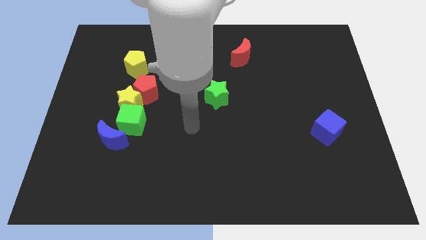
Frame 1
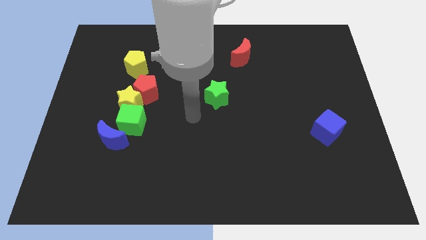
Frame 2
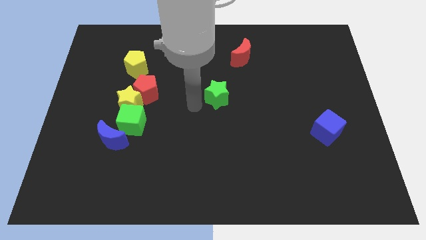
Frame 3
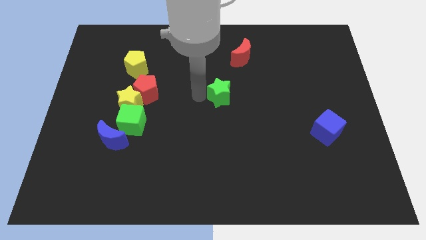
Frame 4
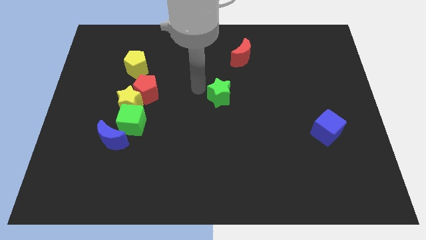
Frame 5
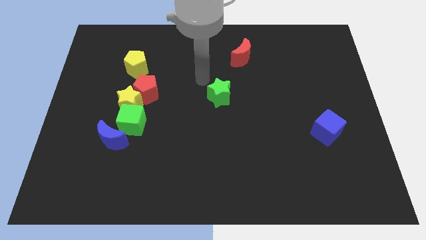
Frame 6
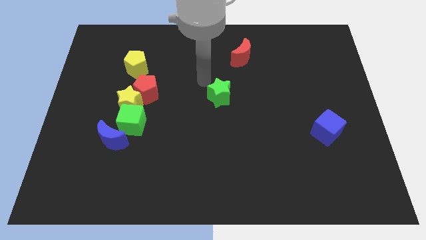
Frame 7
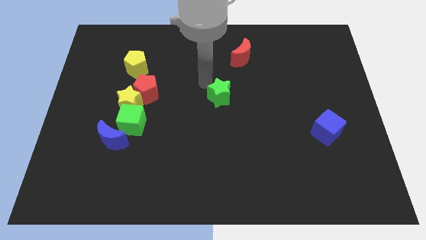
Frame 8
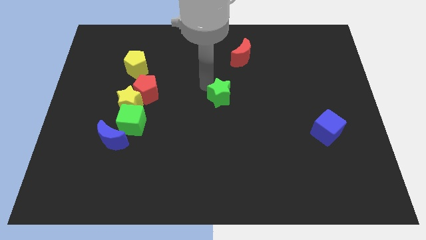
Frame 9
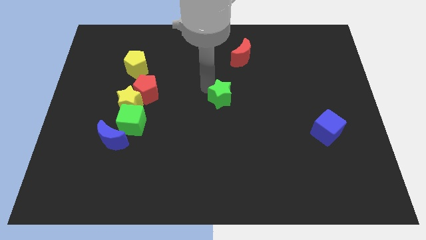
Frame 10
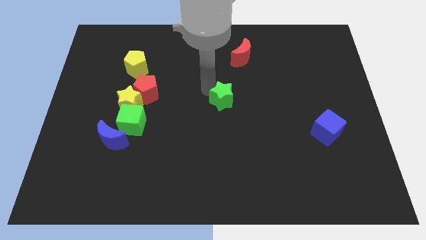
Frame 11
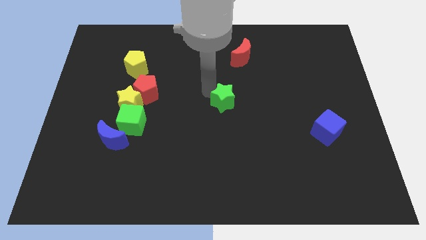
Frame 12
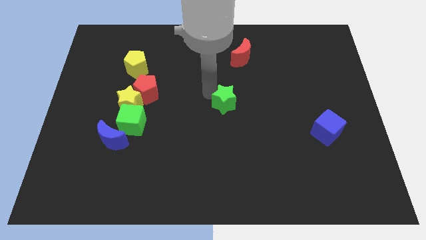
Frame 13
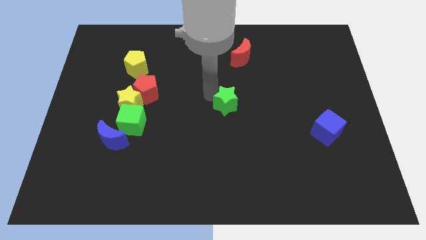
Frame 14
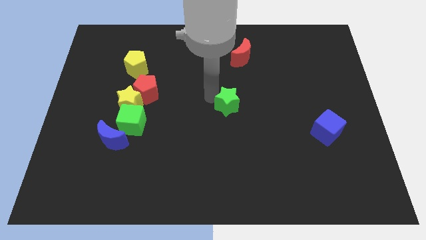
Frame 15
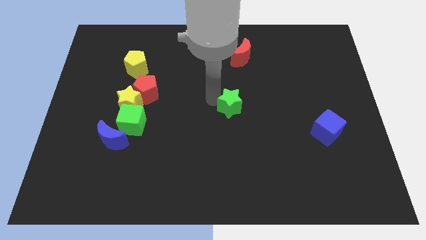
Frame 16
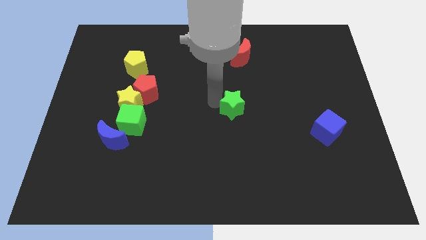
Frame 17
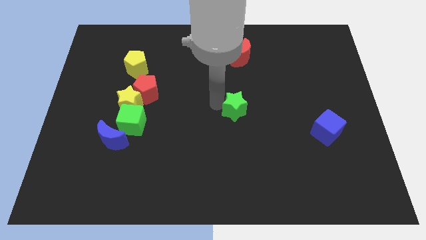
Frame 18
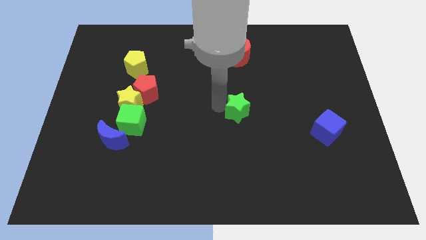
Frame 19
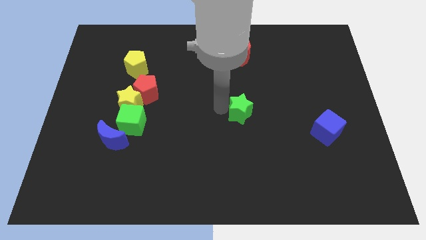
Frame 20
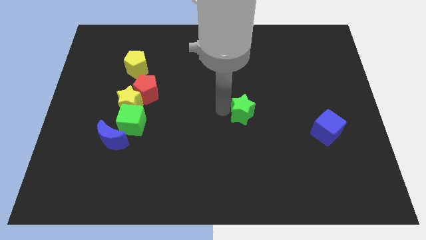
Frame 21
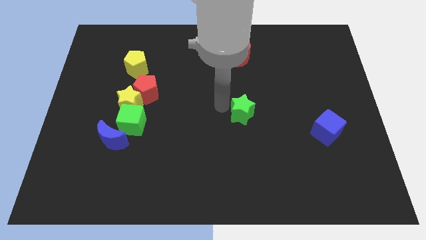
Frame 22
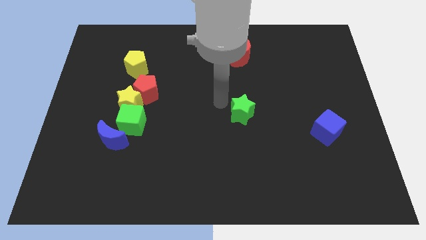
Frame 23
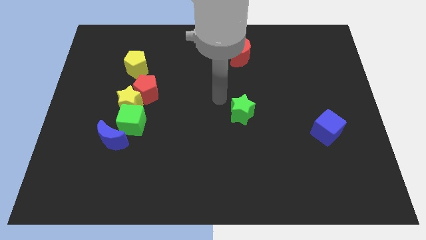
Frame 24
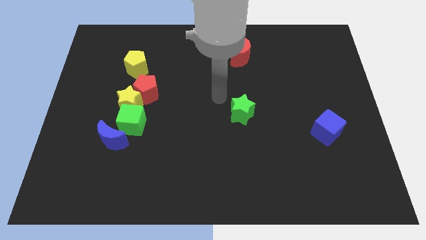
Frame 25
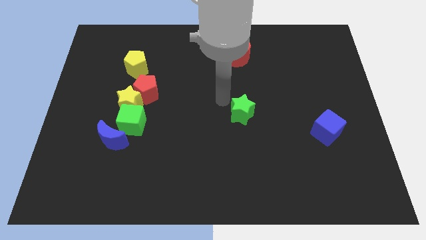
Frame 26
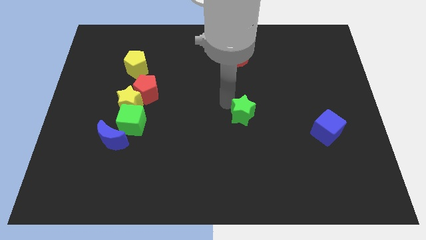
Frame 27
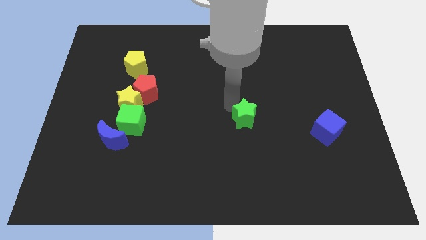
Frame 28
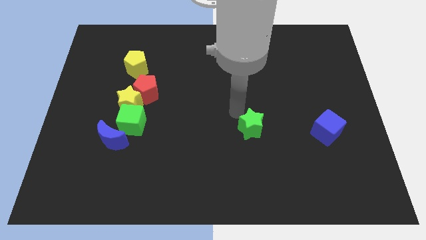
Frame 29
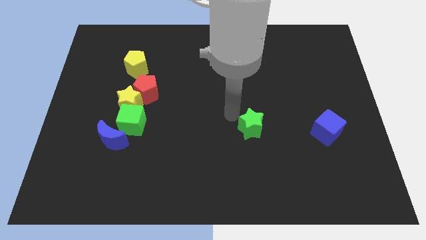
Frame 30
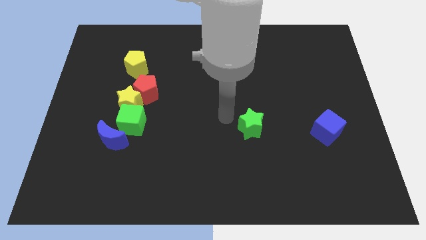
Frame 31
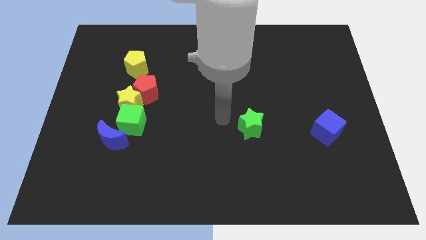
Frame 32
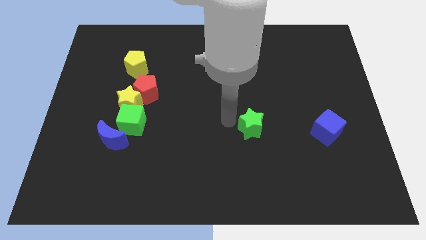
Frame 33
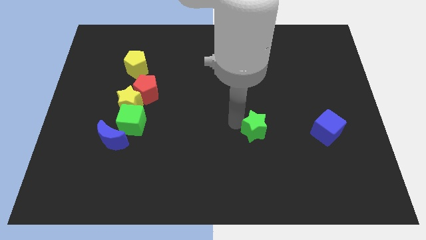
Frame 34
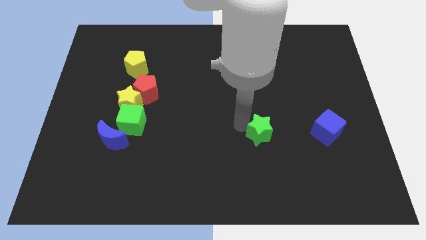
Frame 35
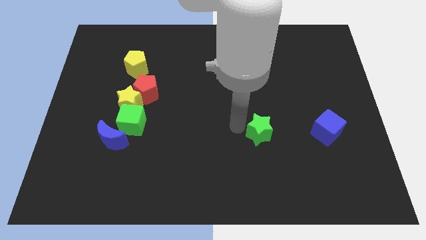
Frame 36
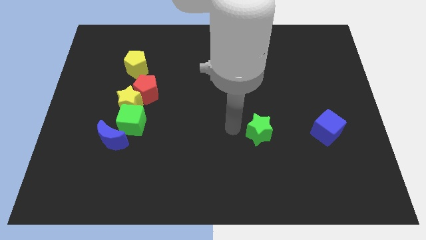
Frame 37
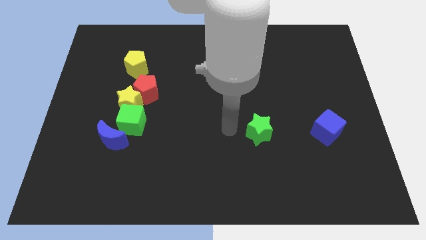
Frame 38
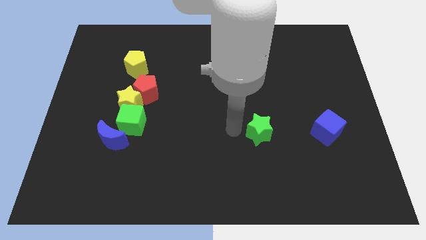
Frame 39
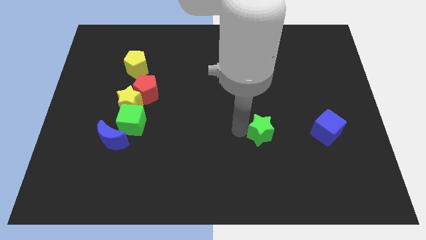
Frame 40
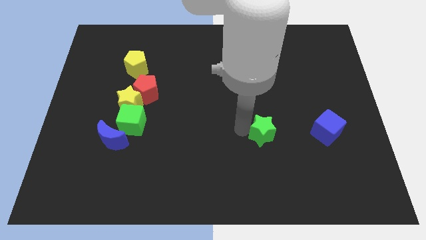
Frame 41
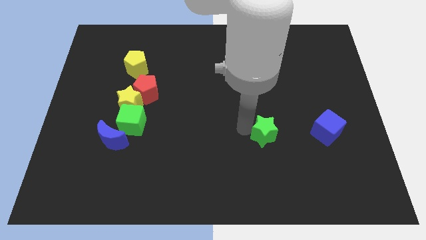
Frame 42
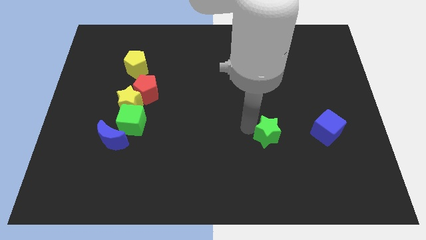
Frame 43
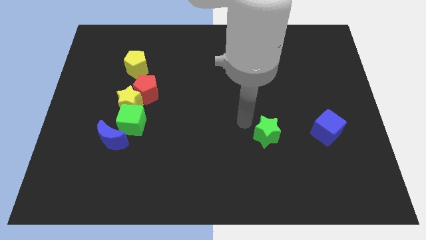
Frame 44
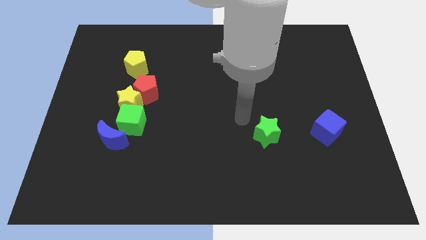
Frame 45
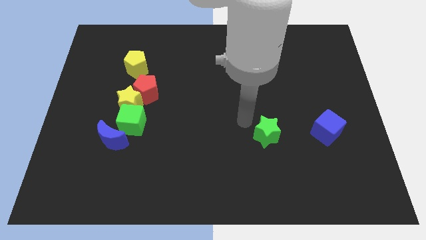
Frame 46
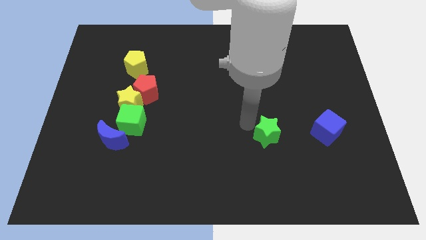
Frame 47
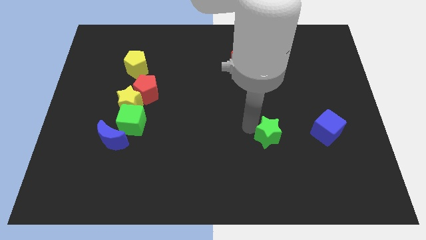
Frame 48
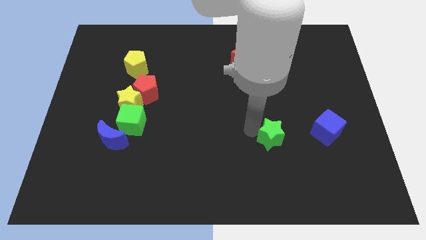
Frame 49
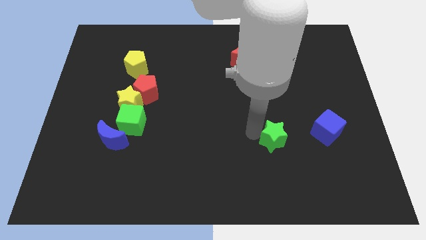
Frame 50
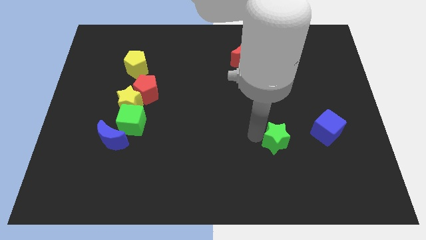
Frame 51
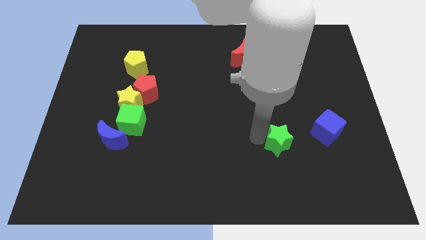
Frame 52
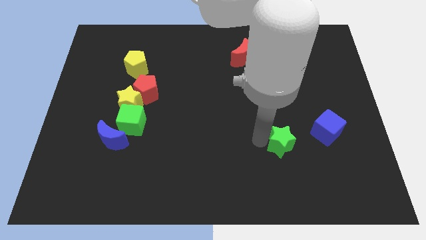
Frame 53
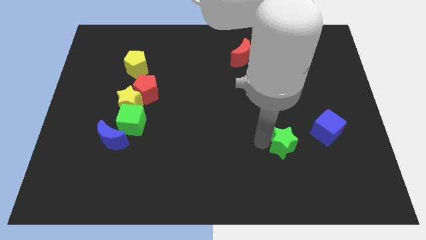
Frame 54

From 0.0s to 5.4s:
move the green star downwards and right diagonally

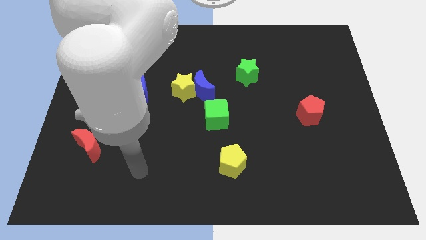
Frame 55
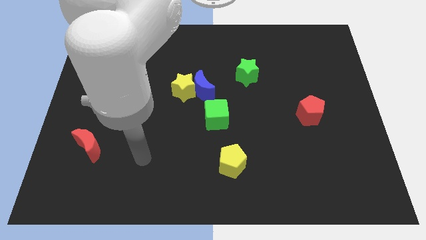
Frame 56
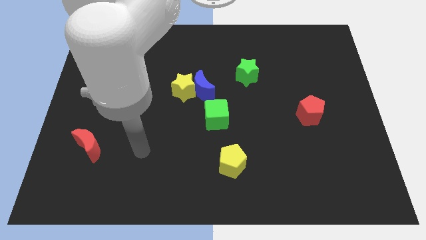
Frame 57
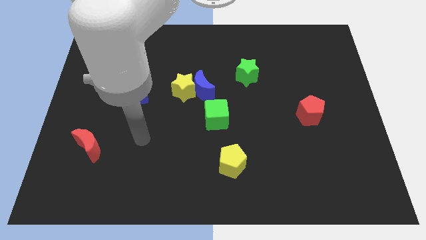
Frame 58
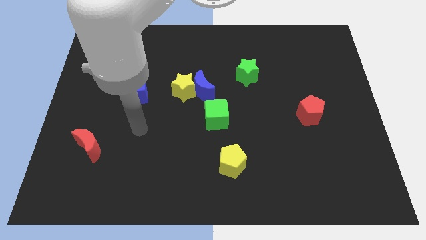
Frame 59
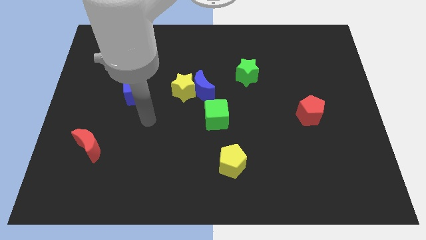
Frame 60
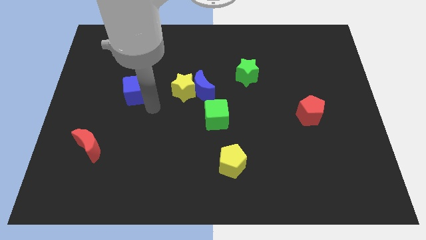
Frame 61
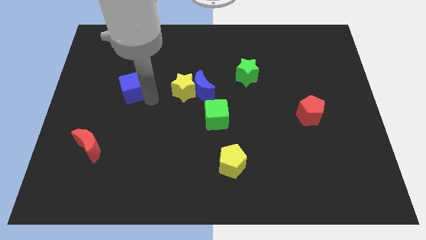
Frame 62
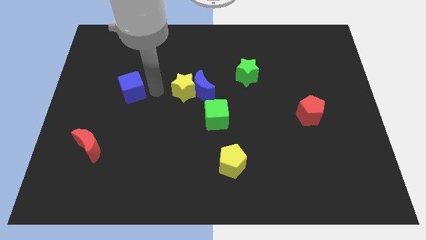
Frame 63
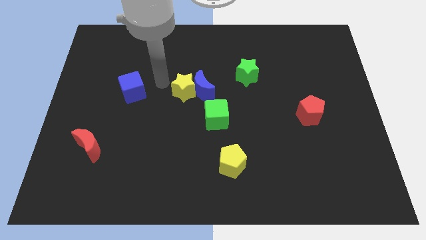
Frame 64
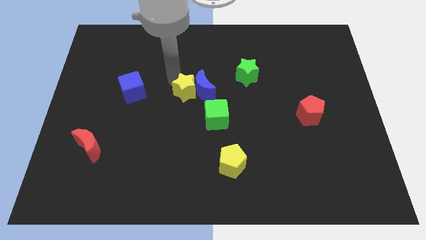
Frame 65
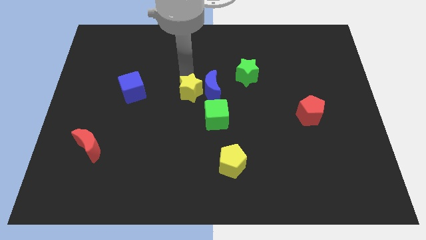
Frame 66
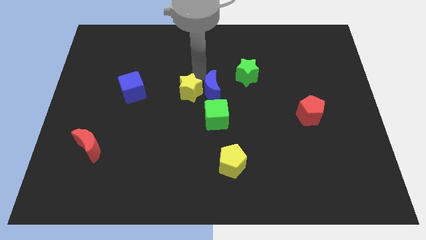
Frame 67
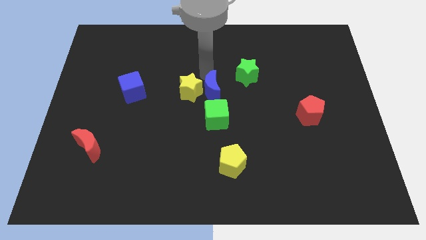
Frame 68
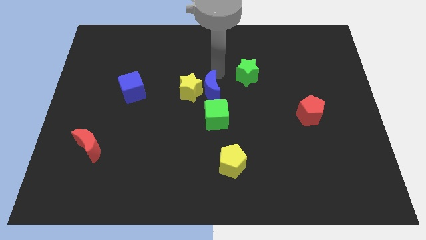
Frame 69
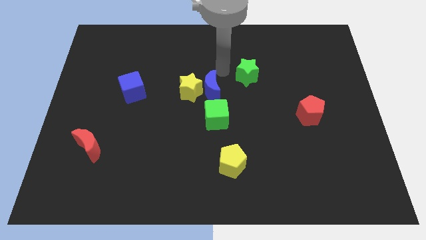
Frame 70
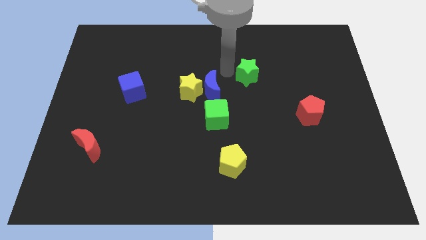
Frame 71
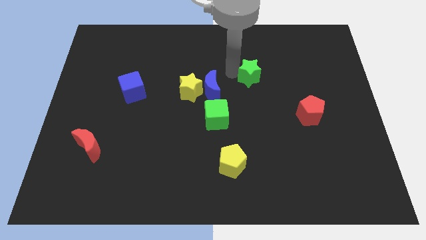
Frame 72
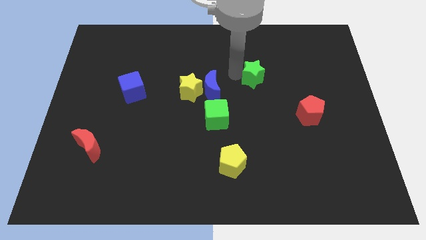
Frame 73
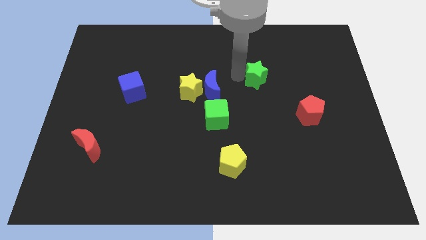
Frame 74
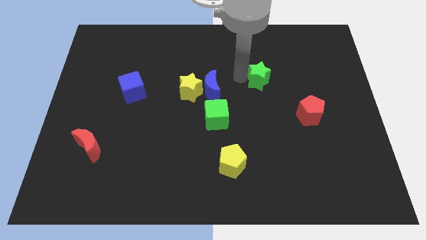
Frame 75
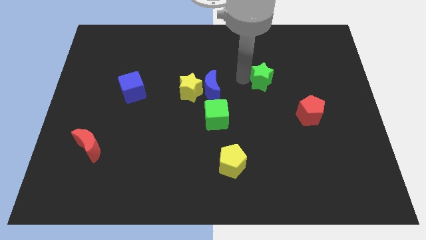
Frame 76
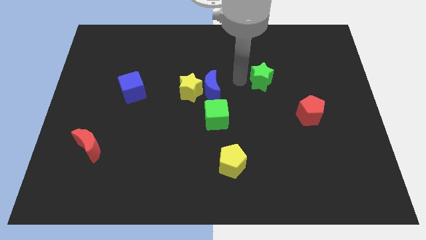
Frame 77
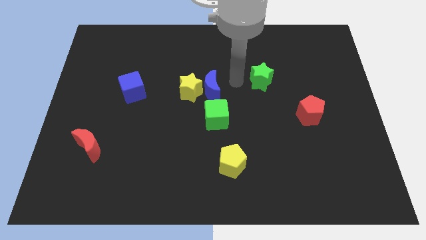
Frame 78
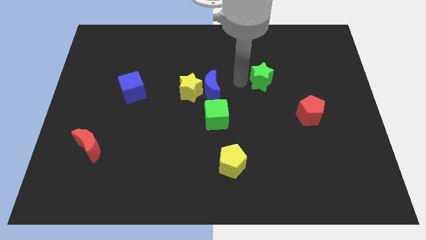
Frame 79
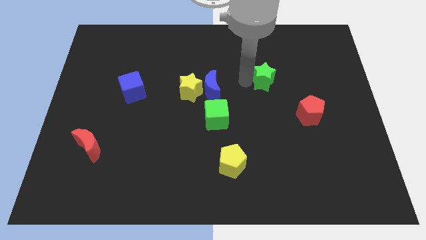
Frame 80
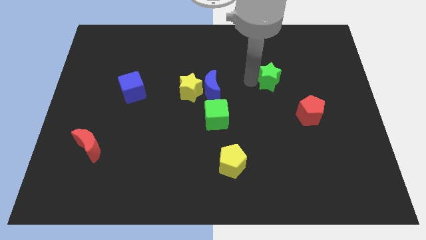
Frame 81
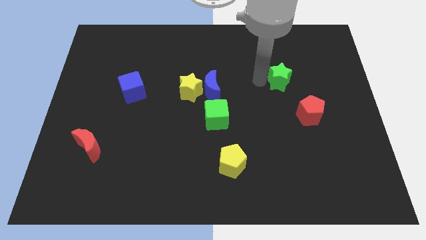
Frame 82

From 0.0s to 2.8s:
push the green star to the right a bit

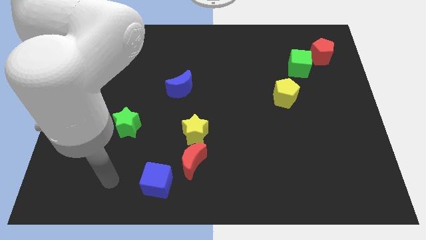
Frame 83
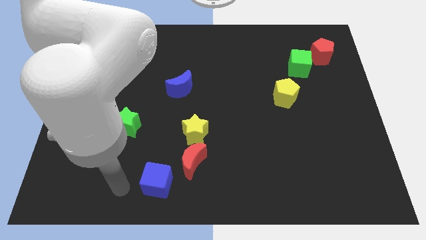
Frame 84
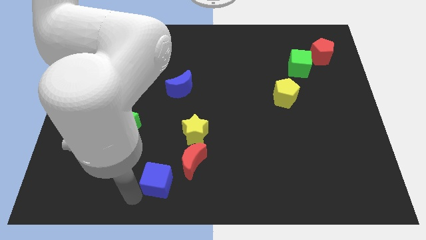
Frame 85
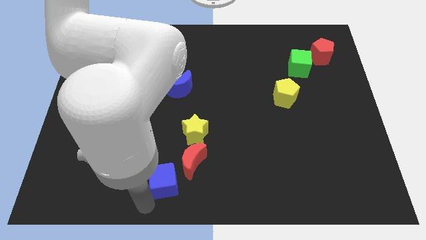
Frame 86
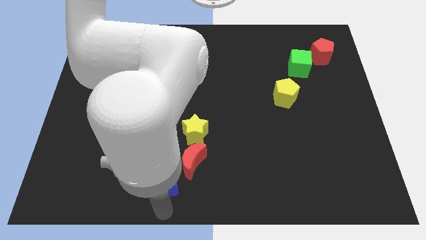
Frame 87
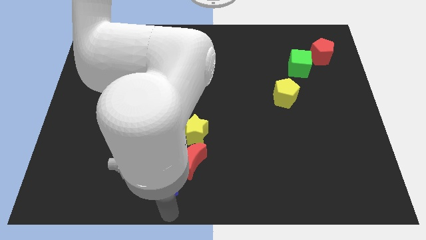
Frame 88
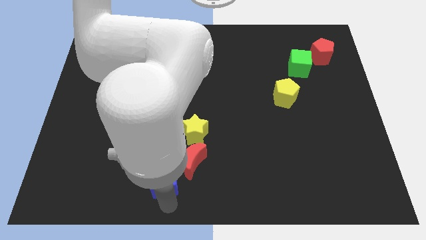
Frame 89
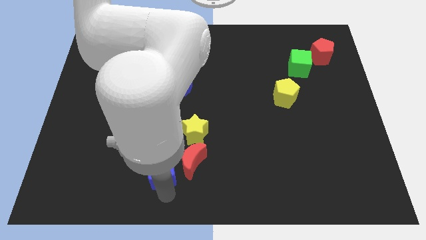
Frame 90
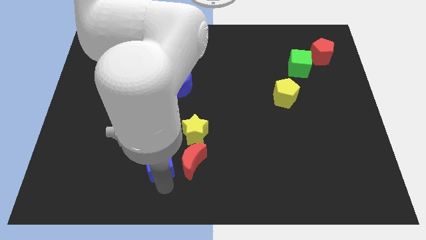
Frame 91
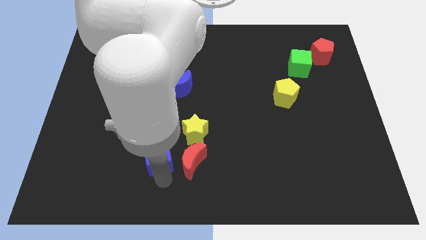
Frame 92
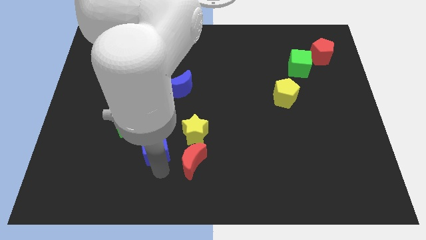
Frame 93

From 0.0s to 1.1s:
slightly push the blue cube up
